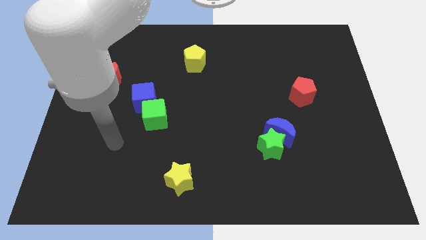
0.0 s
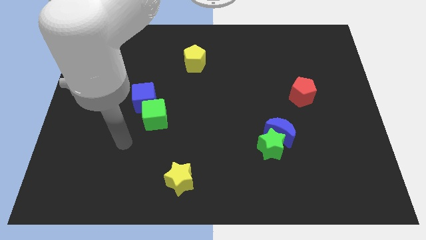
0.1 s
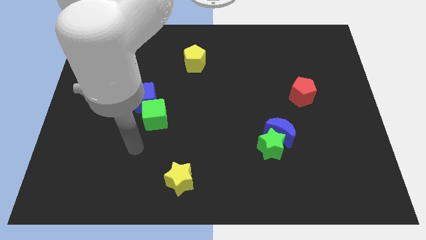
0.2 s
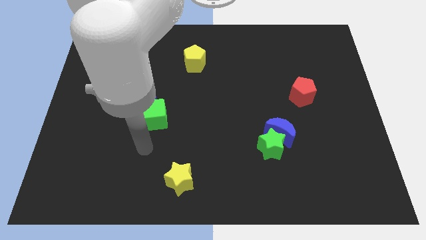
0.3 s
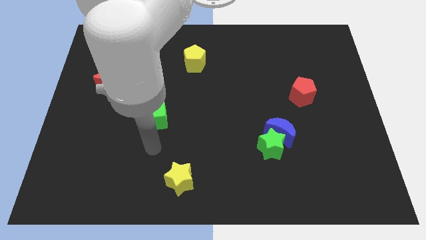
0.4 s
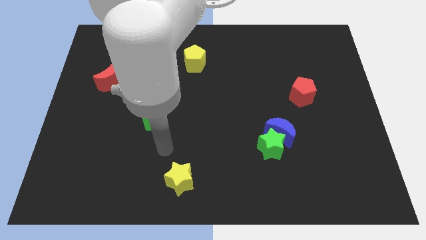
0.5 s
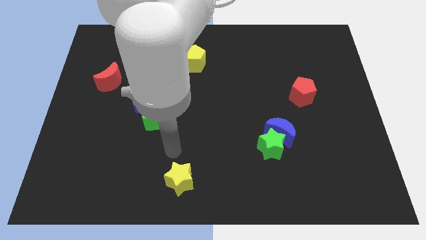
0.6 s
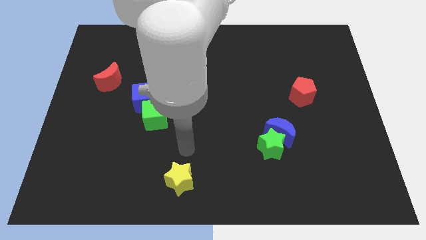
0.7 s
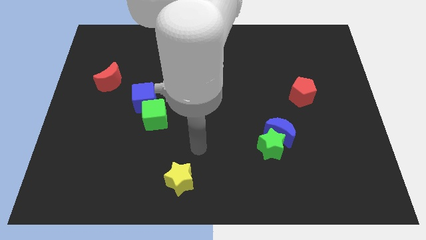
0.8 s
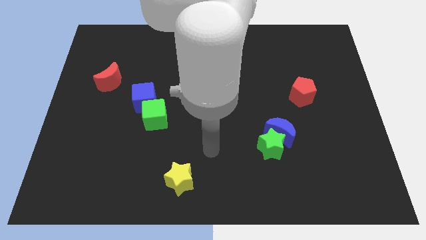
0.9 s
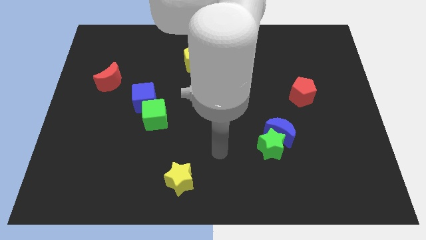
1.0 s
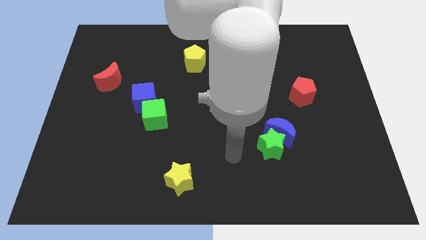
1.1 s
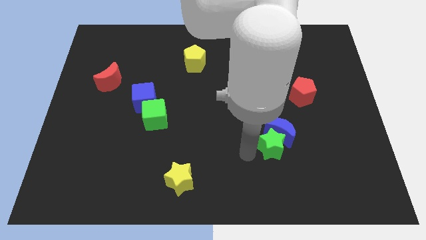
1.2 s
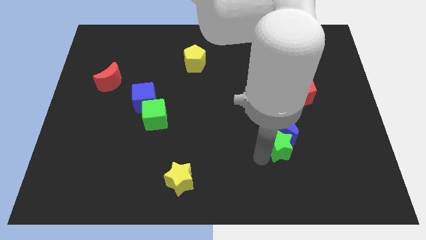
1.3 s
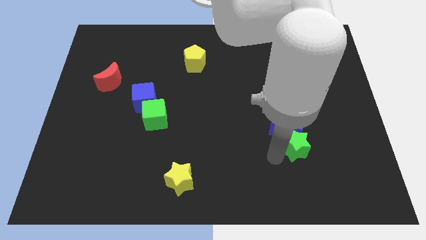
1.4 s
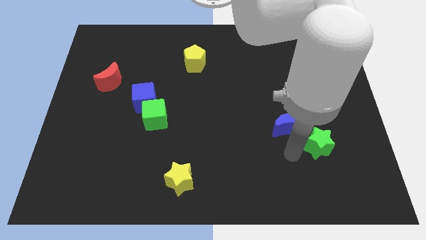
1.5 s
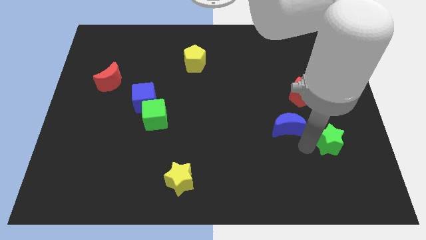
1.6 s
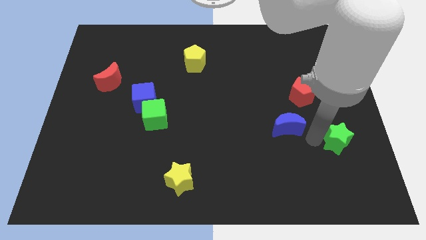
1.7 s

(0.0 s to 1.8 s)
move the blue moon away from the green star

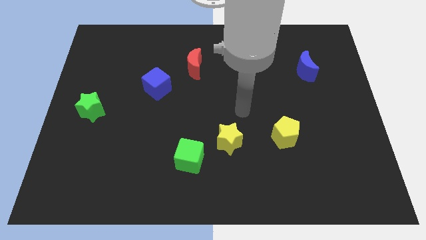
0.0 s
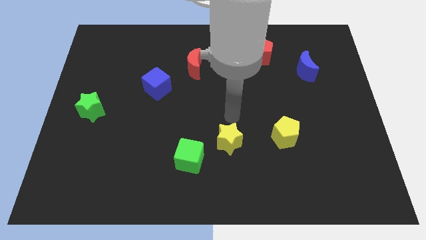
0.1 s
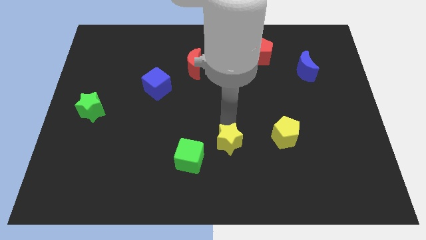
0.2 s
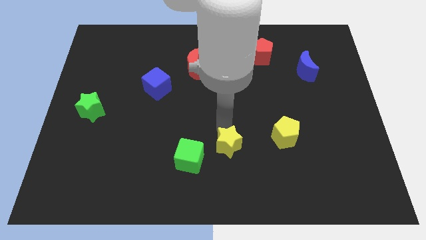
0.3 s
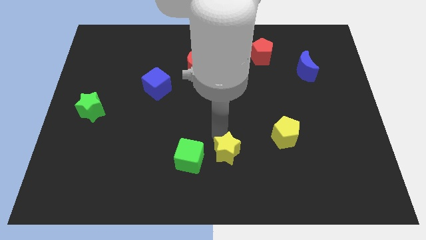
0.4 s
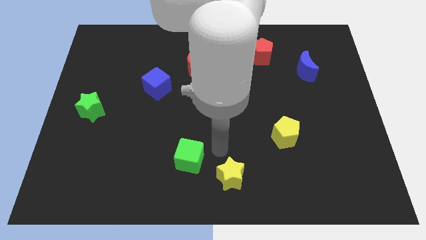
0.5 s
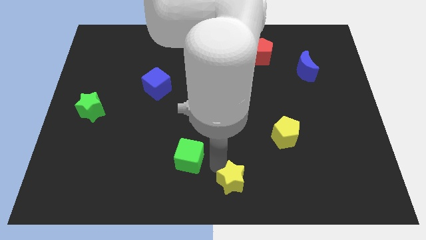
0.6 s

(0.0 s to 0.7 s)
separate the green cube from the yellow star

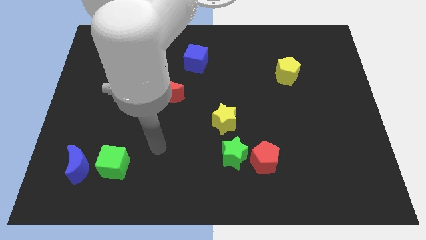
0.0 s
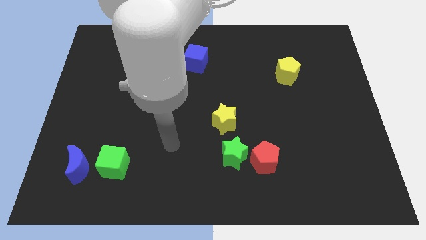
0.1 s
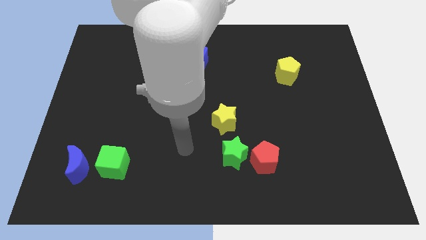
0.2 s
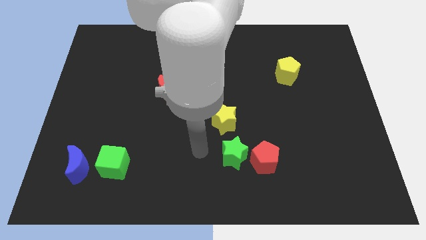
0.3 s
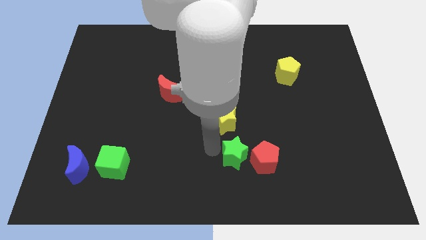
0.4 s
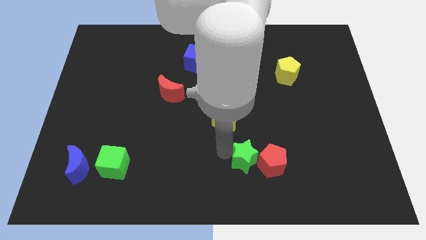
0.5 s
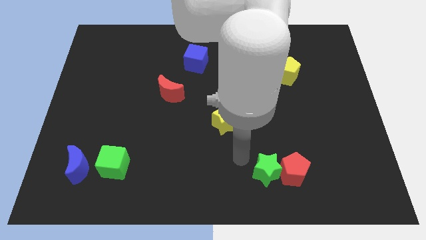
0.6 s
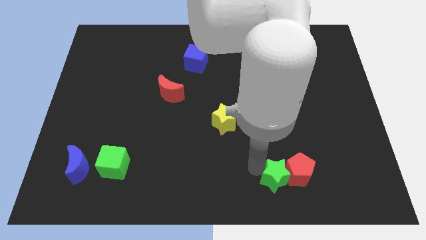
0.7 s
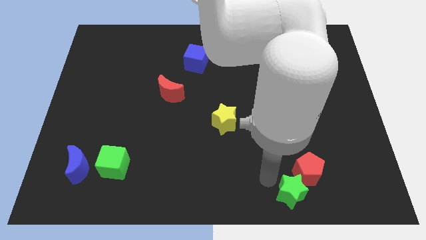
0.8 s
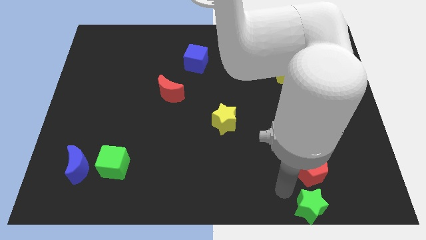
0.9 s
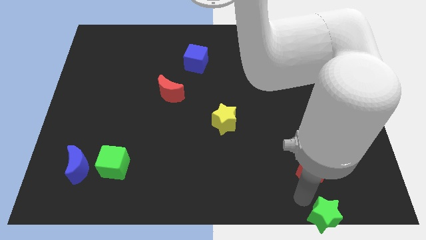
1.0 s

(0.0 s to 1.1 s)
pull the red pentagon apart from the green star

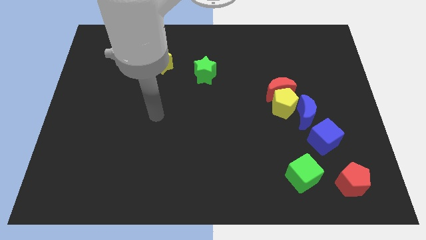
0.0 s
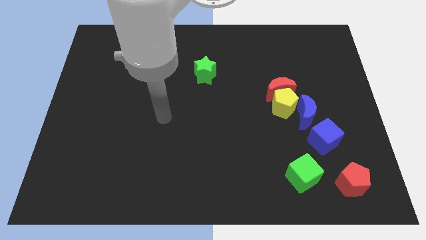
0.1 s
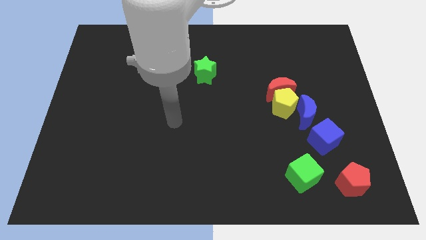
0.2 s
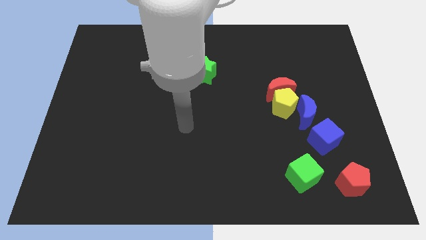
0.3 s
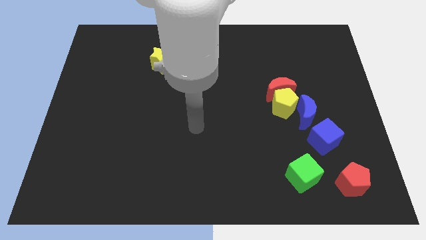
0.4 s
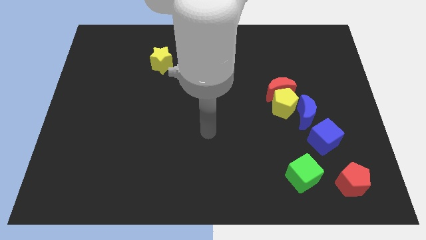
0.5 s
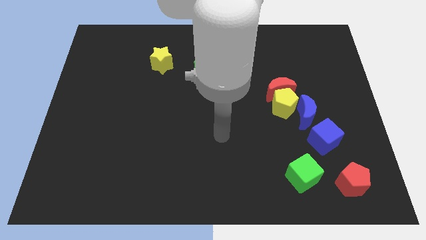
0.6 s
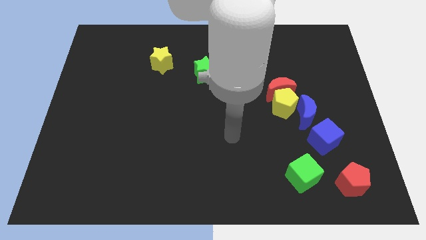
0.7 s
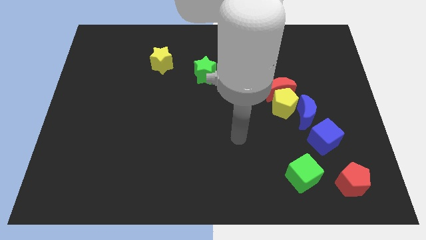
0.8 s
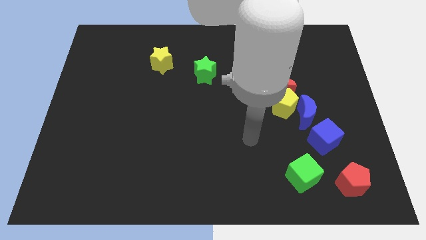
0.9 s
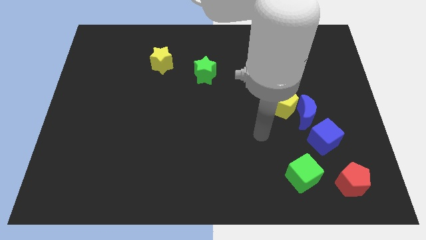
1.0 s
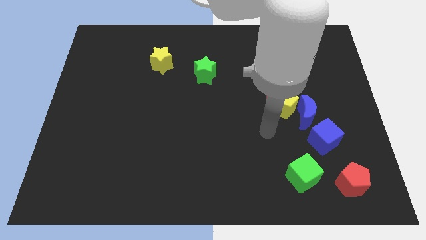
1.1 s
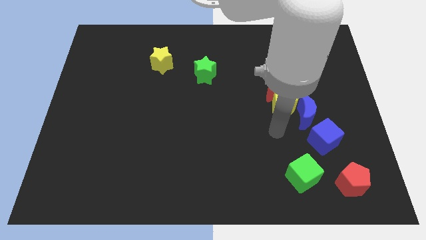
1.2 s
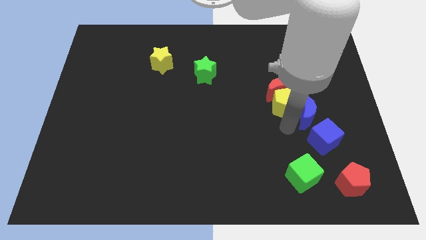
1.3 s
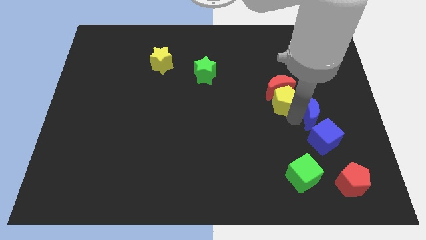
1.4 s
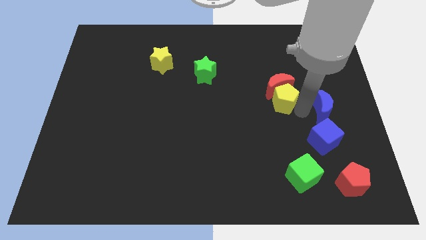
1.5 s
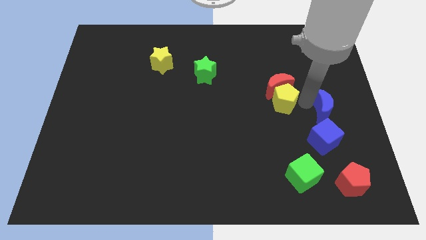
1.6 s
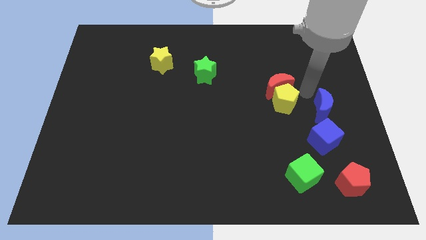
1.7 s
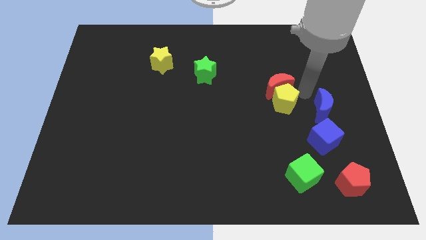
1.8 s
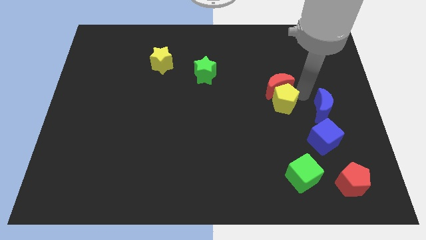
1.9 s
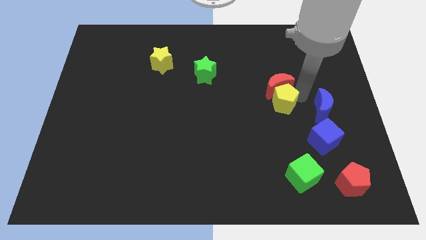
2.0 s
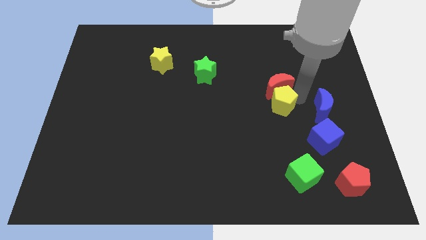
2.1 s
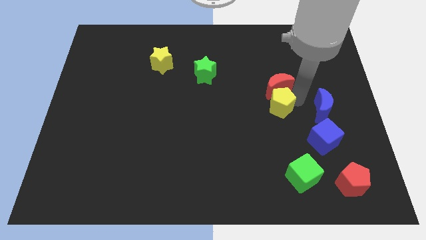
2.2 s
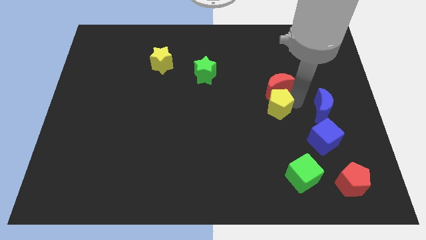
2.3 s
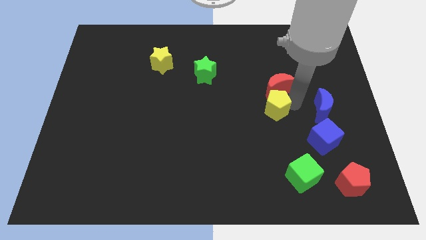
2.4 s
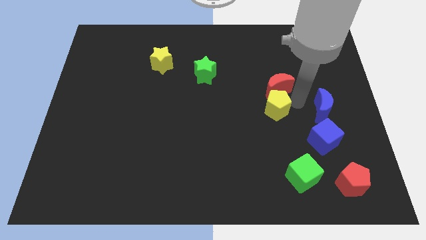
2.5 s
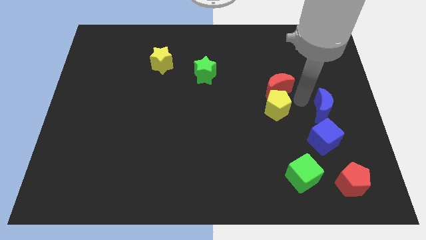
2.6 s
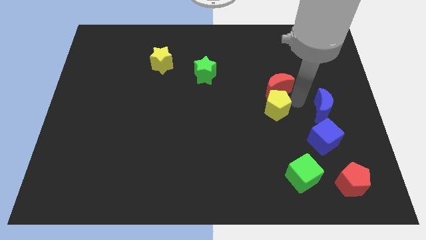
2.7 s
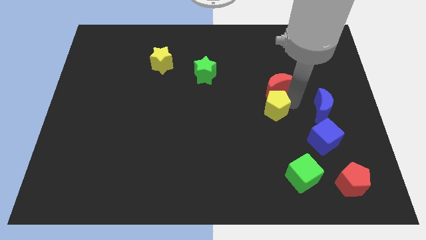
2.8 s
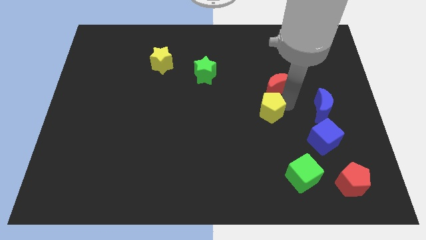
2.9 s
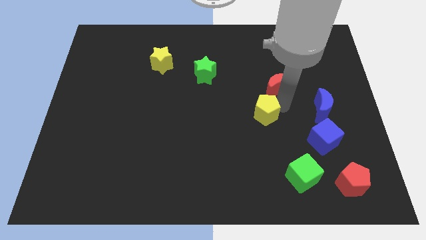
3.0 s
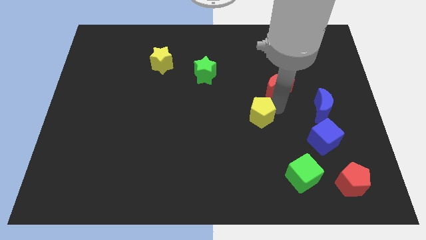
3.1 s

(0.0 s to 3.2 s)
pull the yellow pentagon apart from the red moon and blue moon

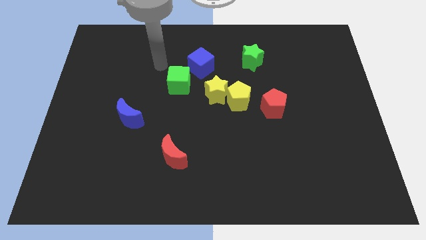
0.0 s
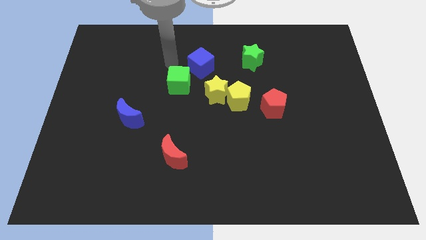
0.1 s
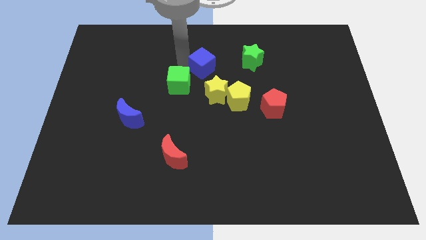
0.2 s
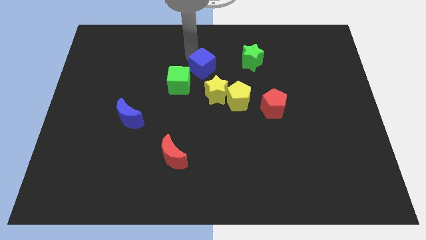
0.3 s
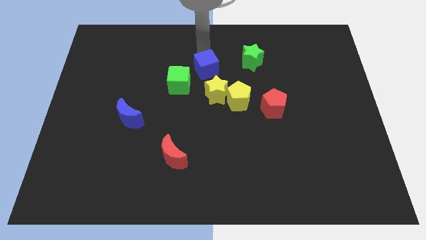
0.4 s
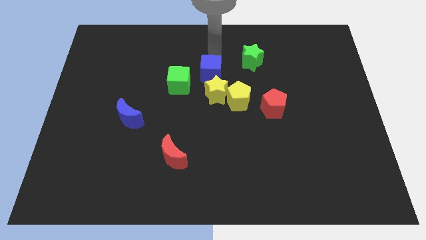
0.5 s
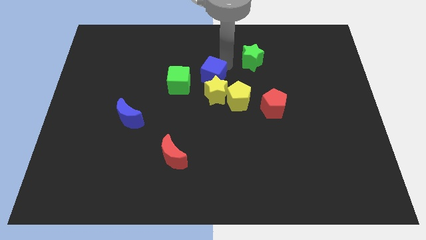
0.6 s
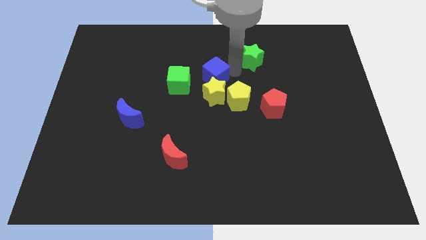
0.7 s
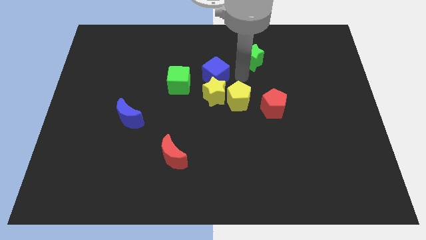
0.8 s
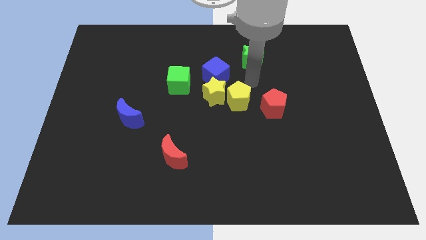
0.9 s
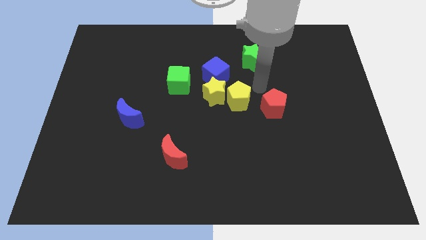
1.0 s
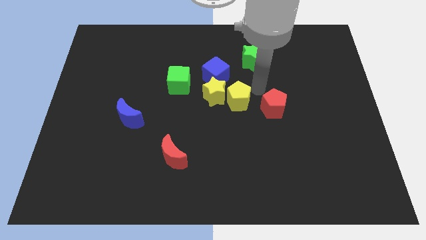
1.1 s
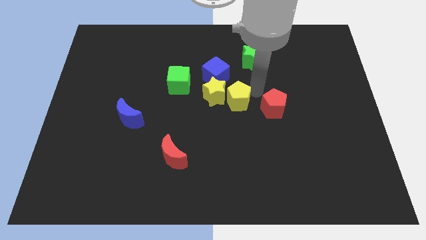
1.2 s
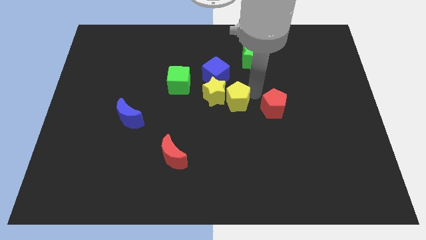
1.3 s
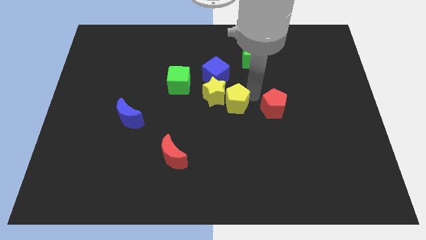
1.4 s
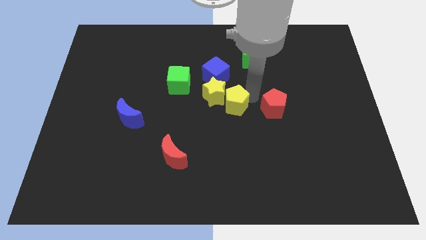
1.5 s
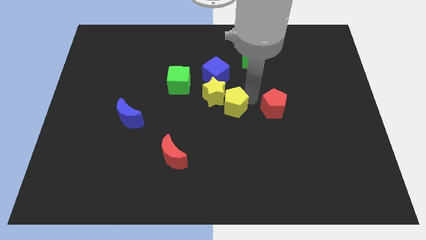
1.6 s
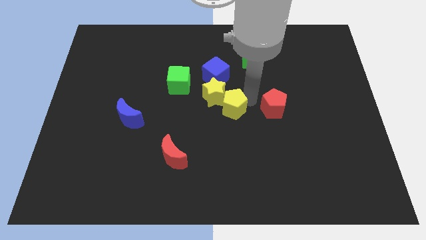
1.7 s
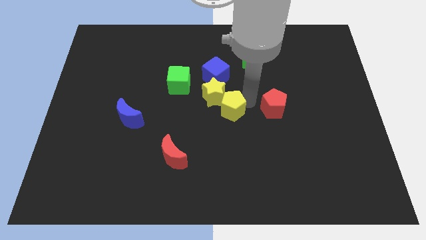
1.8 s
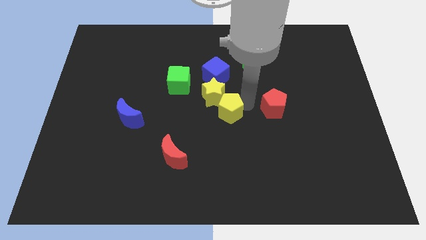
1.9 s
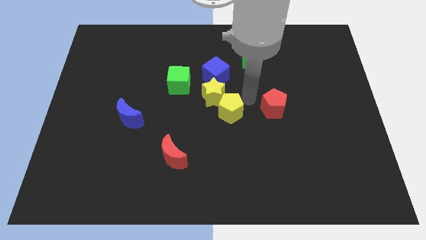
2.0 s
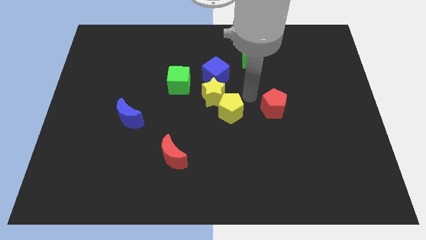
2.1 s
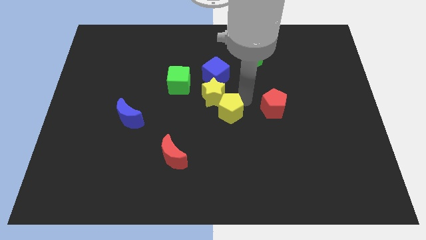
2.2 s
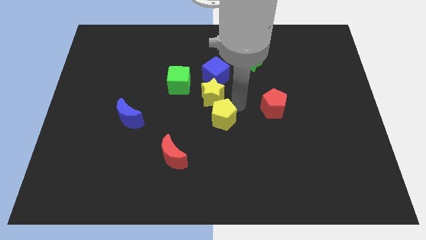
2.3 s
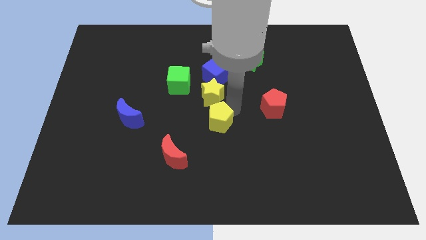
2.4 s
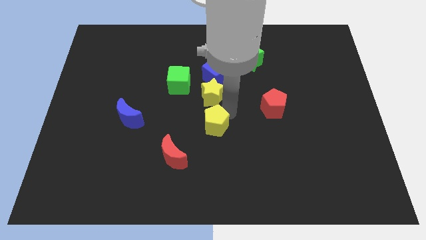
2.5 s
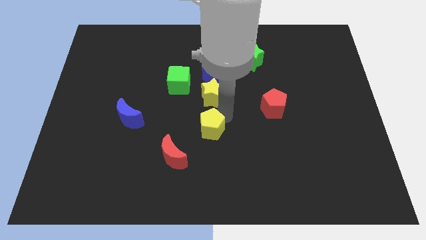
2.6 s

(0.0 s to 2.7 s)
move the yellow pentagon away from the yellow star and red pentagon
